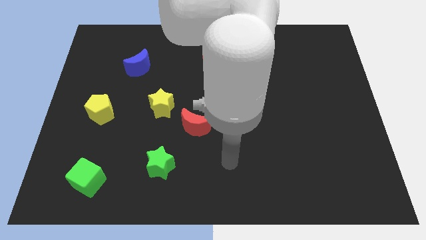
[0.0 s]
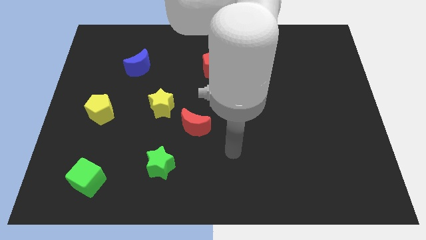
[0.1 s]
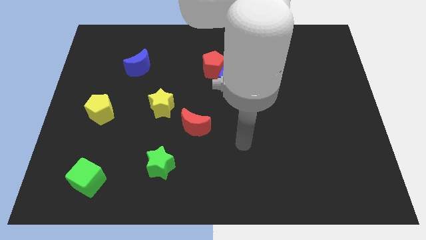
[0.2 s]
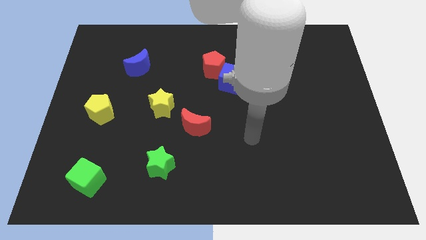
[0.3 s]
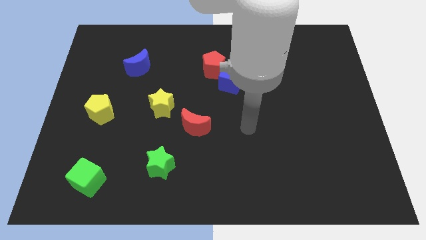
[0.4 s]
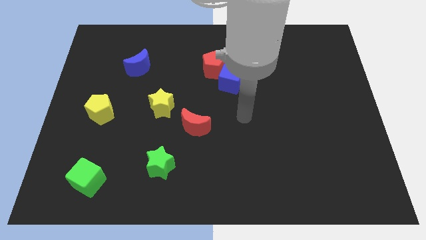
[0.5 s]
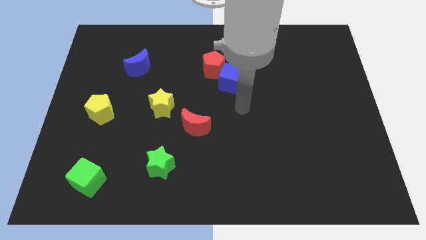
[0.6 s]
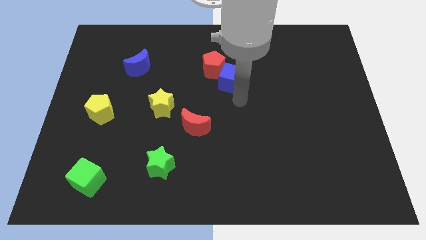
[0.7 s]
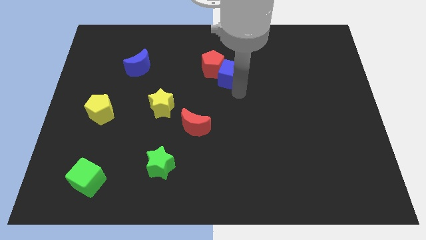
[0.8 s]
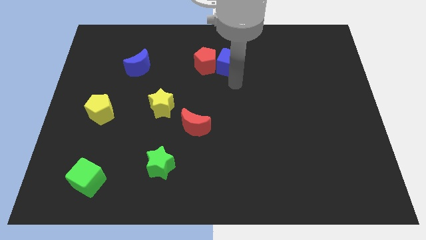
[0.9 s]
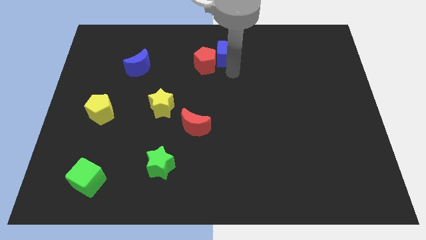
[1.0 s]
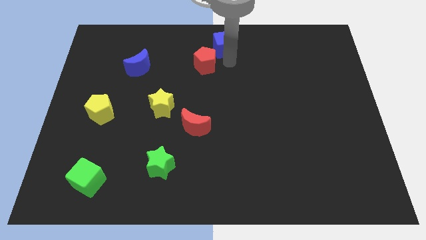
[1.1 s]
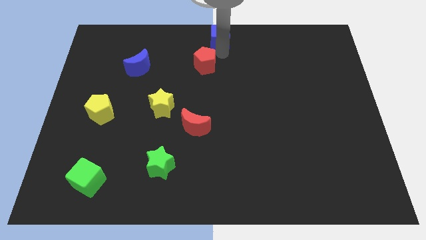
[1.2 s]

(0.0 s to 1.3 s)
move the red pentagon away from the blue cube

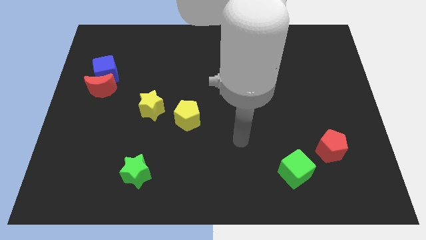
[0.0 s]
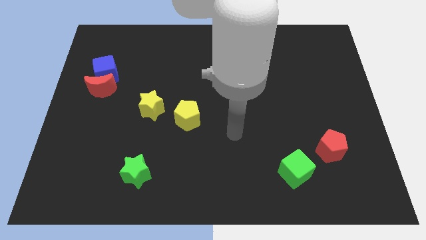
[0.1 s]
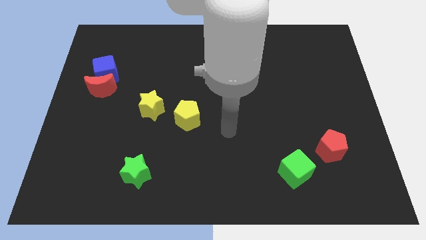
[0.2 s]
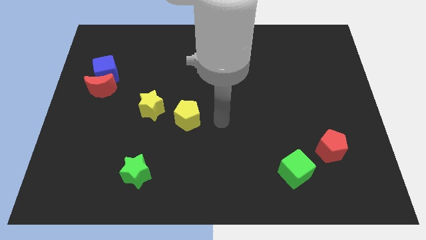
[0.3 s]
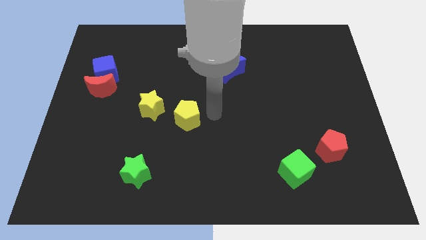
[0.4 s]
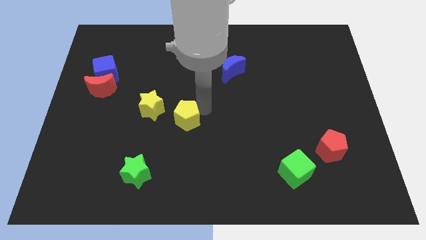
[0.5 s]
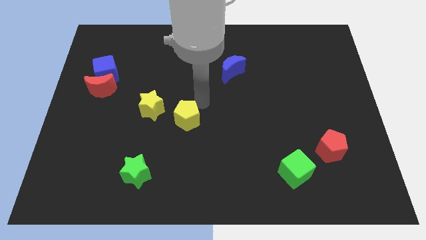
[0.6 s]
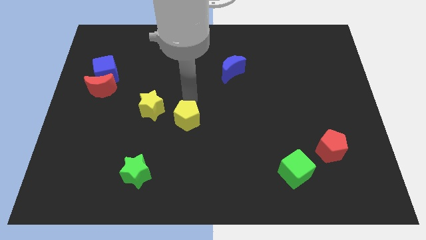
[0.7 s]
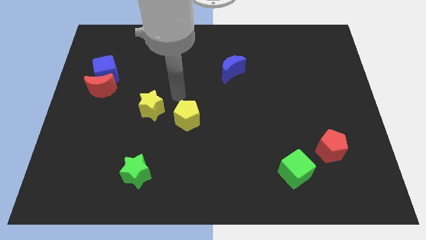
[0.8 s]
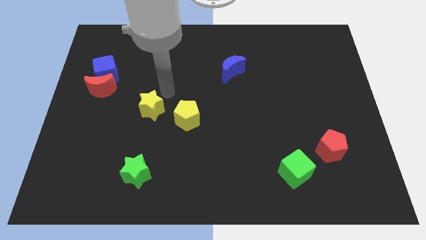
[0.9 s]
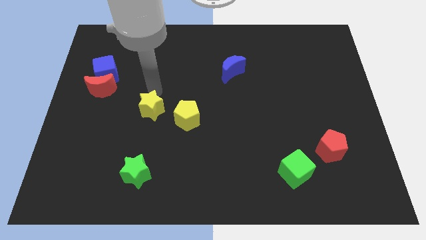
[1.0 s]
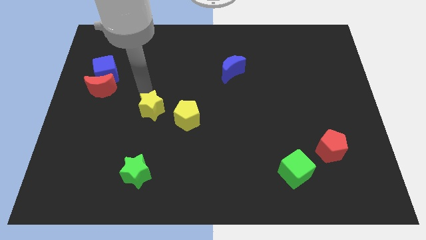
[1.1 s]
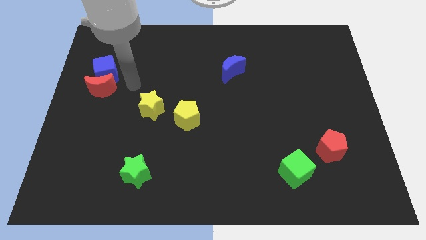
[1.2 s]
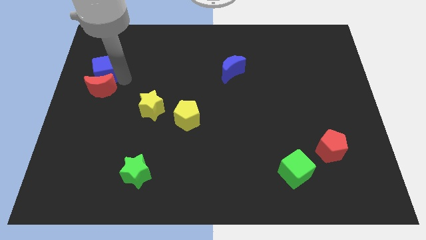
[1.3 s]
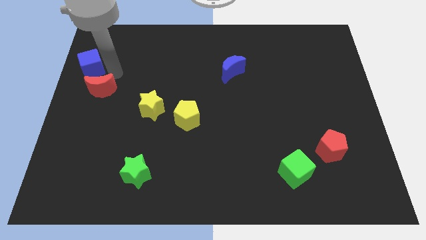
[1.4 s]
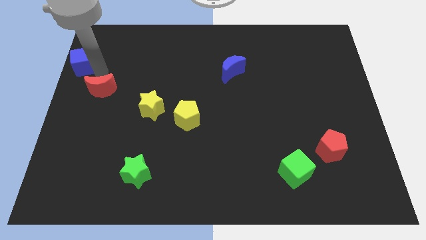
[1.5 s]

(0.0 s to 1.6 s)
pull the red moon apart from the blue cube

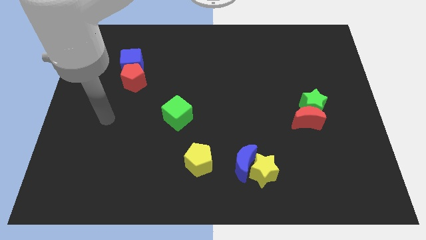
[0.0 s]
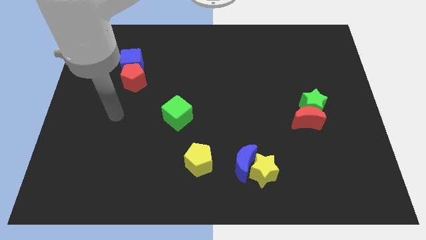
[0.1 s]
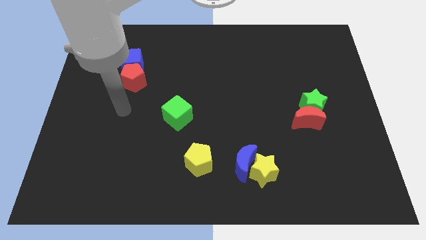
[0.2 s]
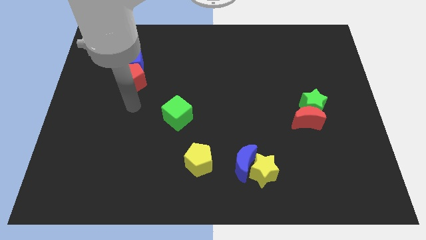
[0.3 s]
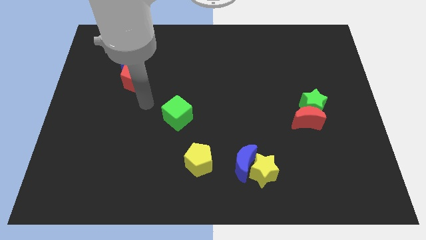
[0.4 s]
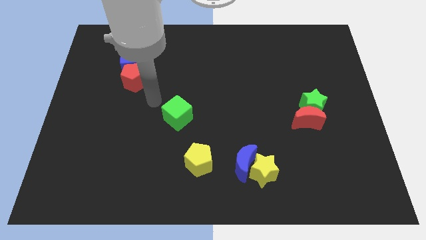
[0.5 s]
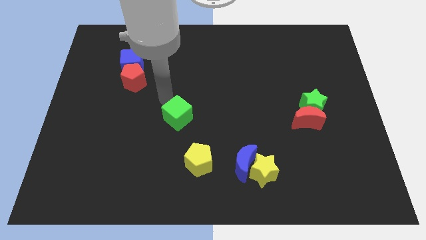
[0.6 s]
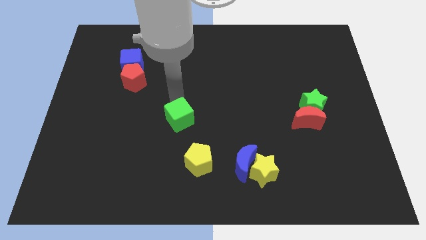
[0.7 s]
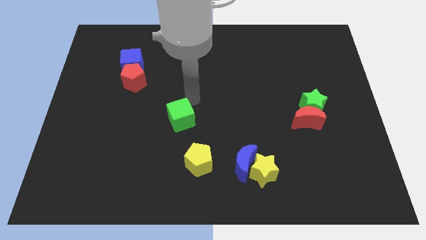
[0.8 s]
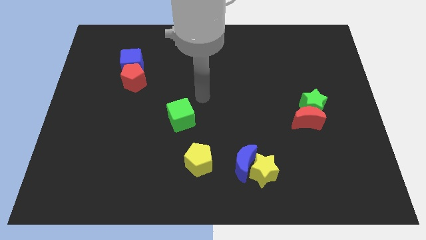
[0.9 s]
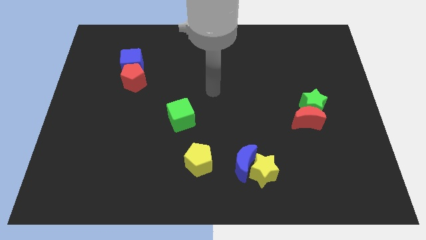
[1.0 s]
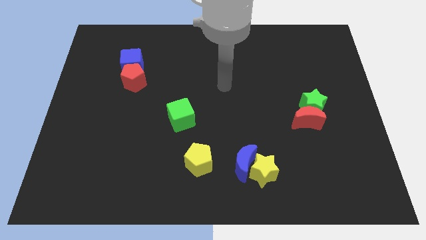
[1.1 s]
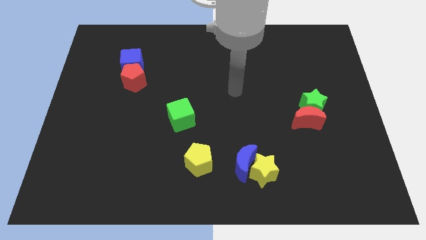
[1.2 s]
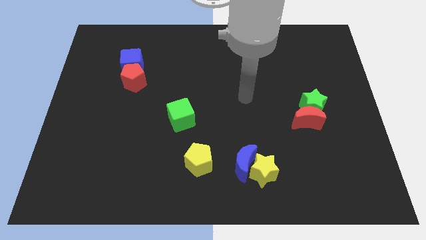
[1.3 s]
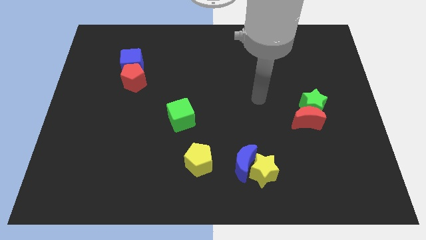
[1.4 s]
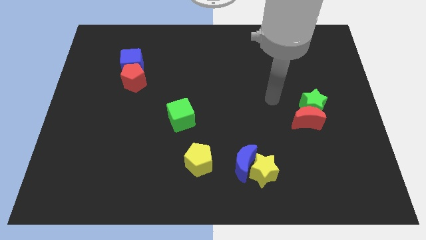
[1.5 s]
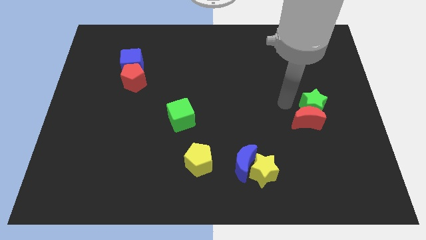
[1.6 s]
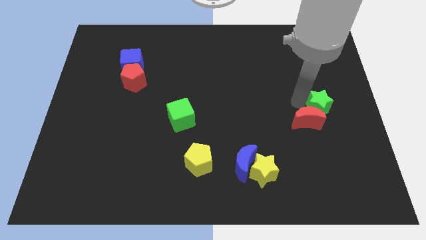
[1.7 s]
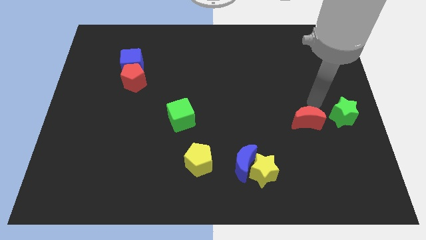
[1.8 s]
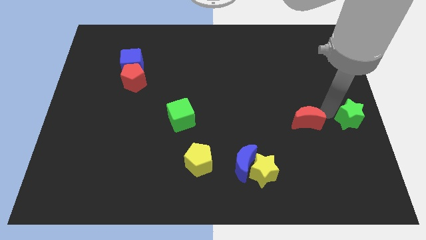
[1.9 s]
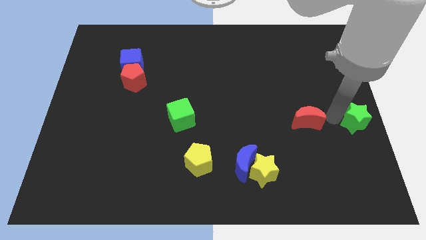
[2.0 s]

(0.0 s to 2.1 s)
separate the red moon from the green star

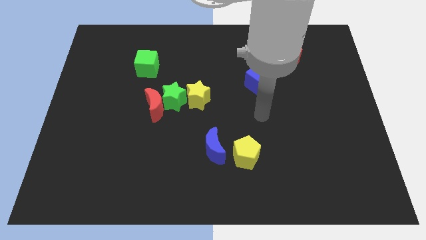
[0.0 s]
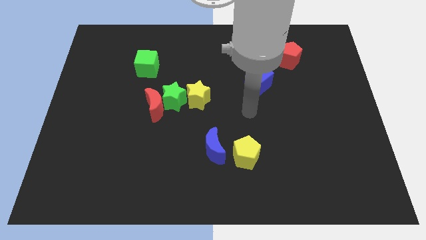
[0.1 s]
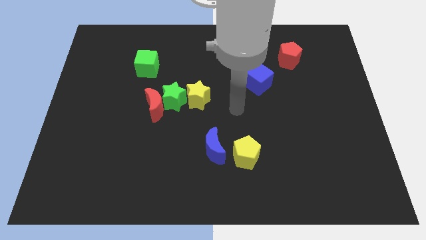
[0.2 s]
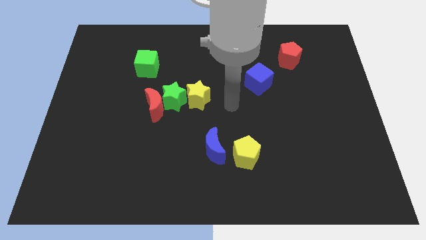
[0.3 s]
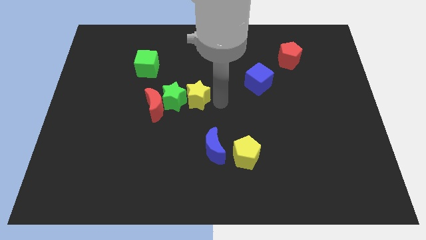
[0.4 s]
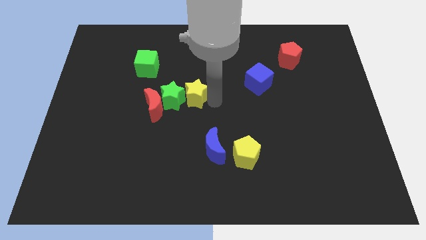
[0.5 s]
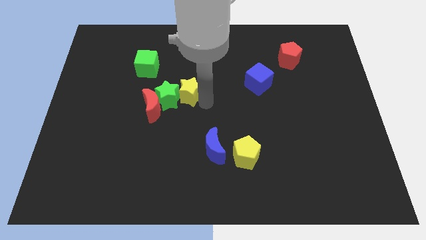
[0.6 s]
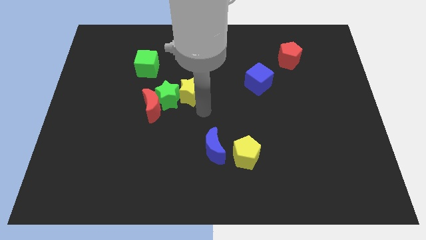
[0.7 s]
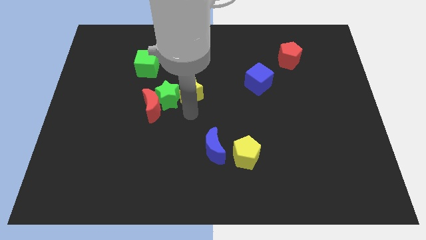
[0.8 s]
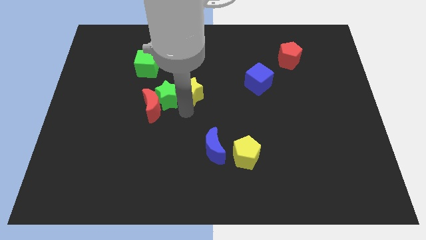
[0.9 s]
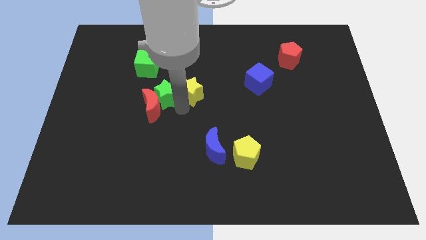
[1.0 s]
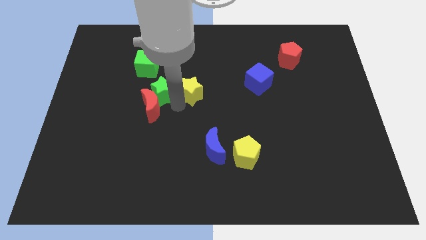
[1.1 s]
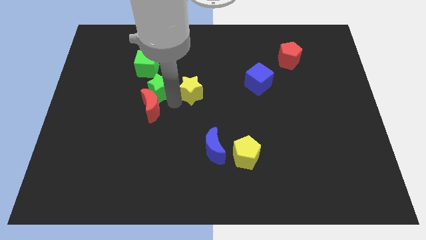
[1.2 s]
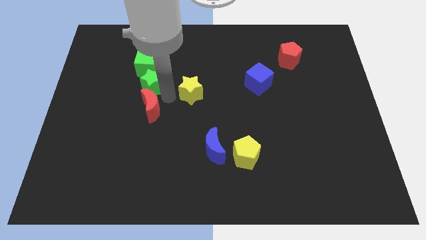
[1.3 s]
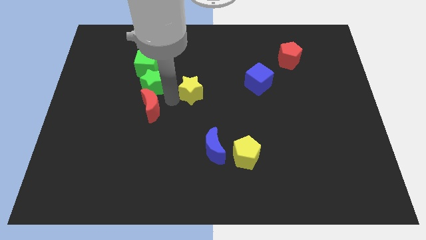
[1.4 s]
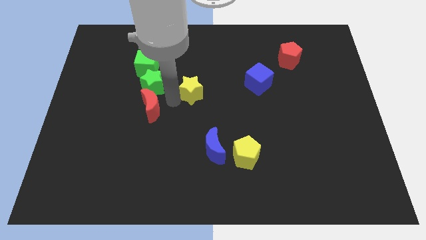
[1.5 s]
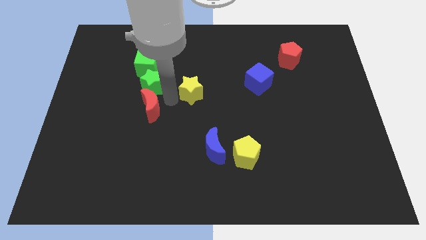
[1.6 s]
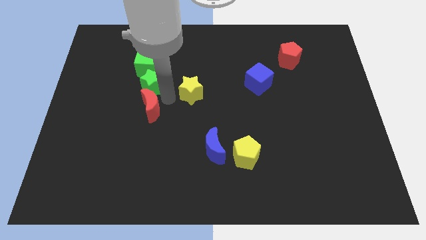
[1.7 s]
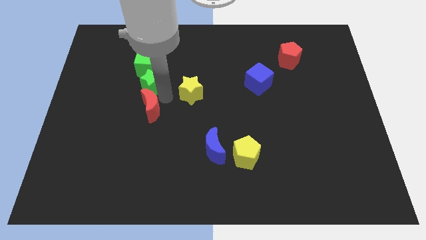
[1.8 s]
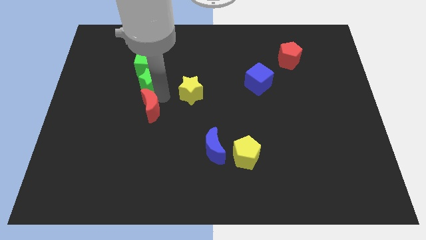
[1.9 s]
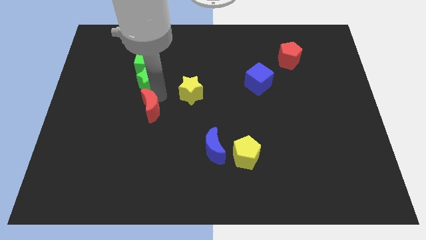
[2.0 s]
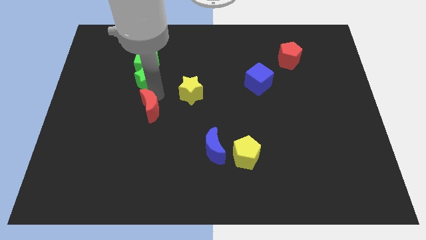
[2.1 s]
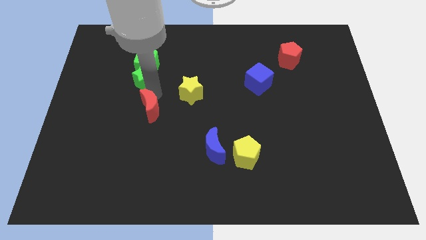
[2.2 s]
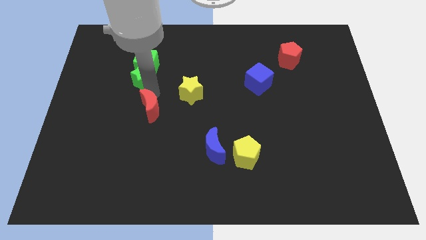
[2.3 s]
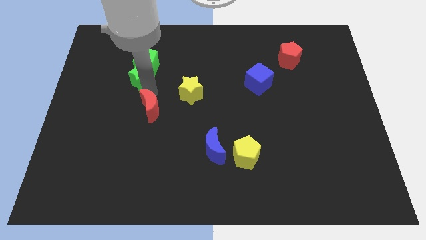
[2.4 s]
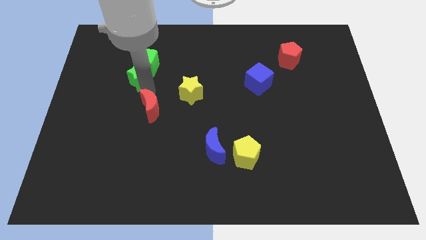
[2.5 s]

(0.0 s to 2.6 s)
move the green star away from the red moon and yellow star

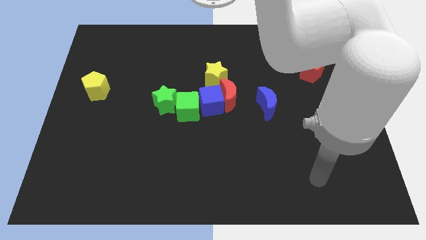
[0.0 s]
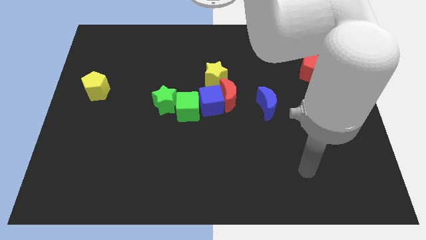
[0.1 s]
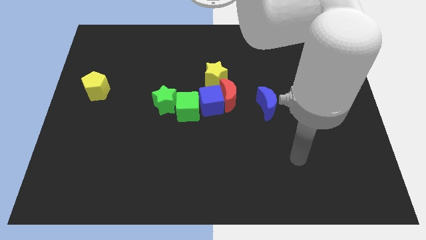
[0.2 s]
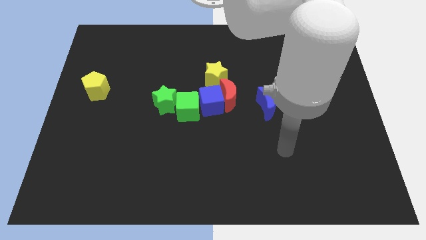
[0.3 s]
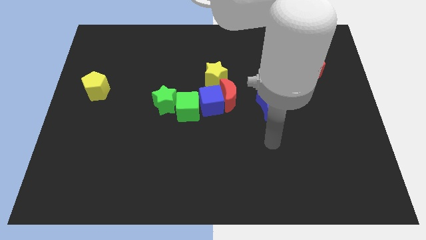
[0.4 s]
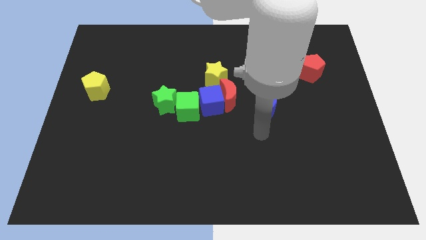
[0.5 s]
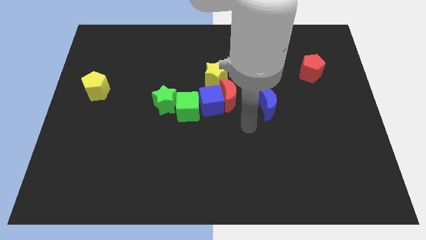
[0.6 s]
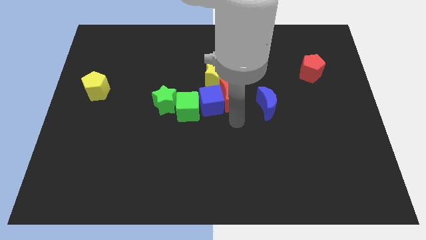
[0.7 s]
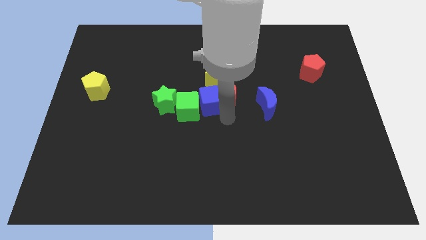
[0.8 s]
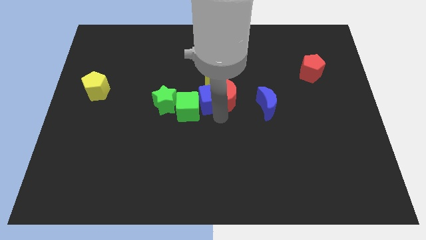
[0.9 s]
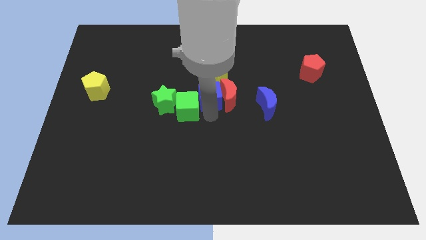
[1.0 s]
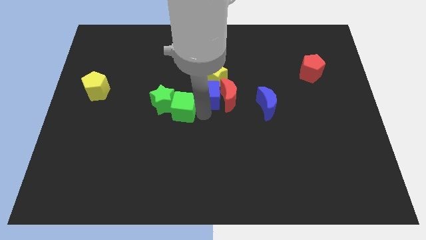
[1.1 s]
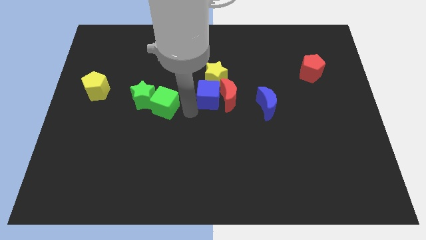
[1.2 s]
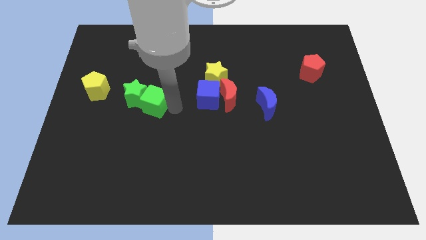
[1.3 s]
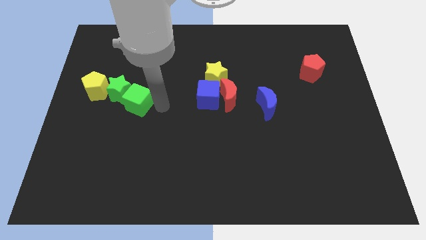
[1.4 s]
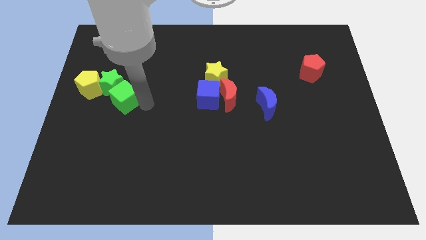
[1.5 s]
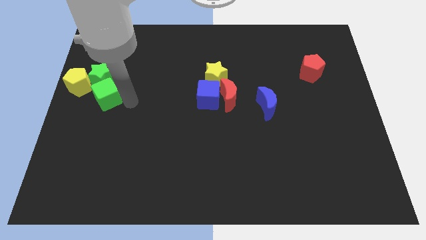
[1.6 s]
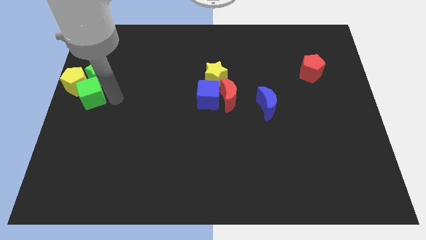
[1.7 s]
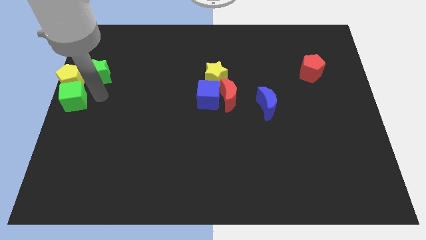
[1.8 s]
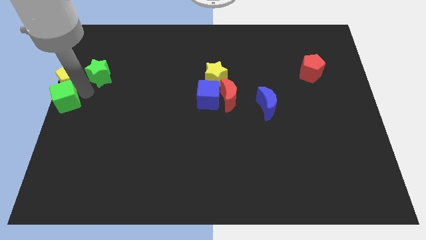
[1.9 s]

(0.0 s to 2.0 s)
move the green star away from the green cube
